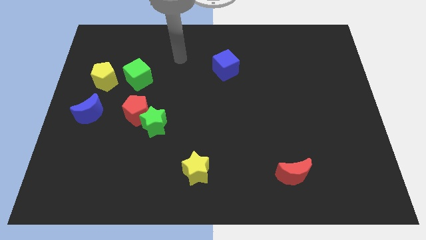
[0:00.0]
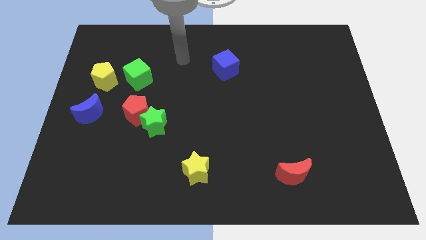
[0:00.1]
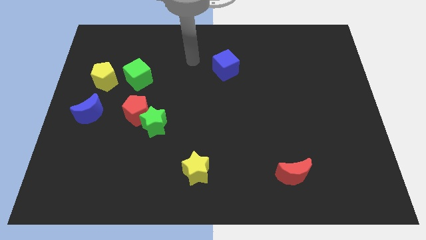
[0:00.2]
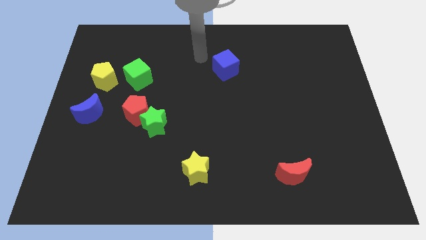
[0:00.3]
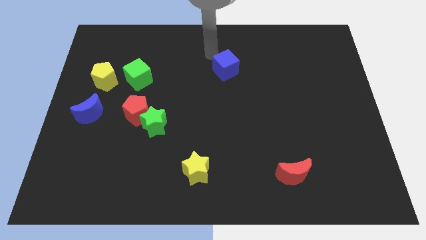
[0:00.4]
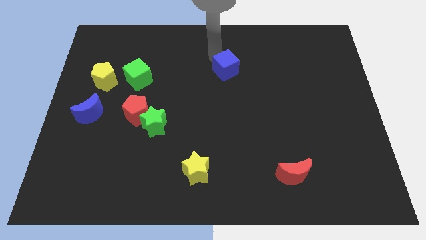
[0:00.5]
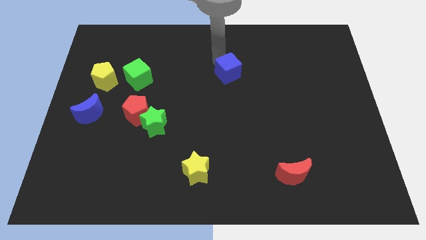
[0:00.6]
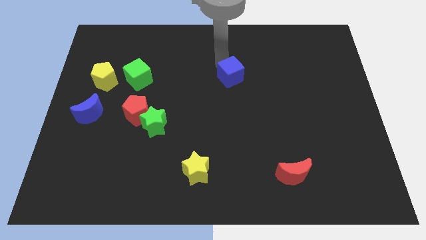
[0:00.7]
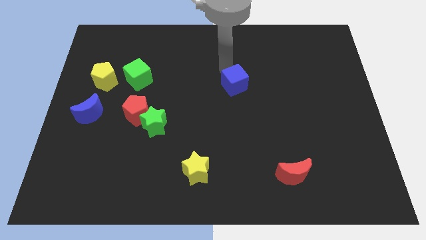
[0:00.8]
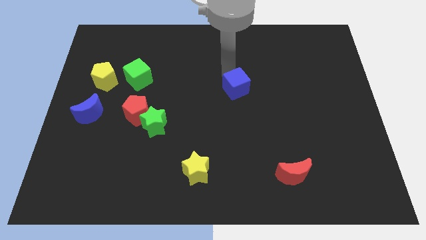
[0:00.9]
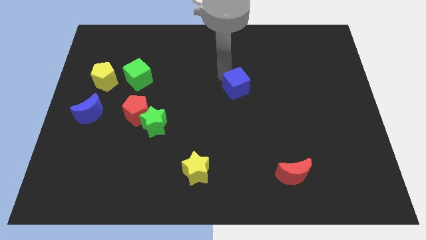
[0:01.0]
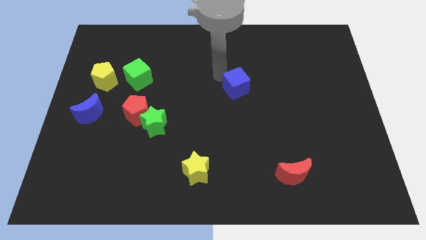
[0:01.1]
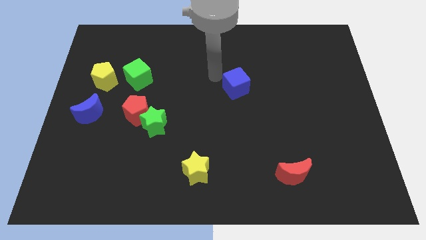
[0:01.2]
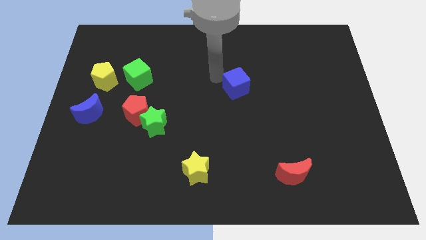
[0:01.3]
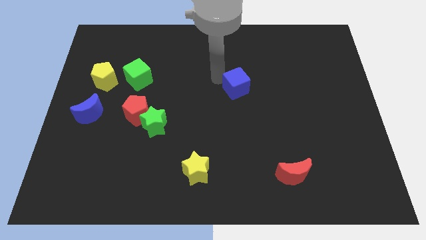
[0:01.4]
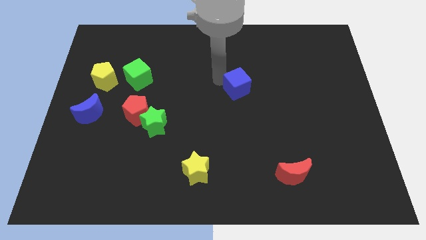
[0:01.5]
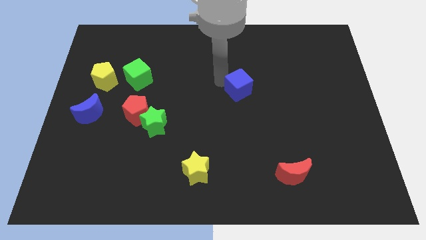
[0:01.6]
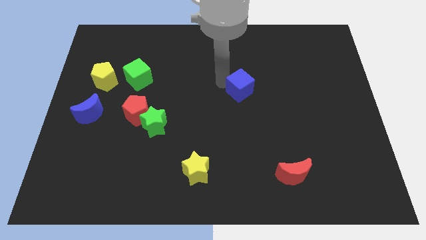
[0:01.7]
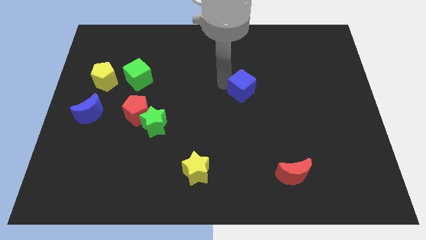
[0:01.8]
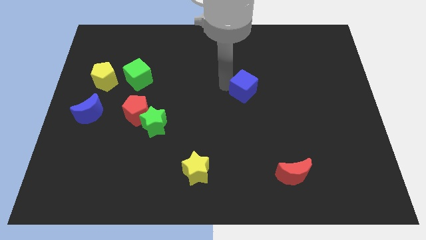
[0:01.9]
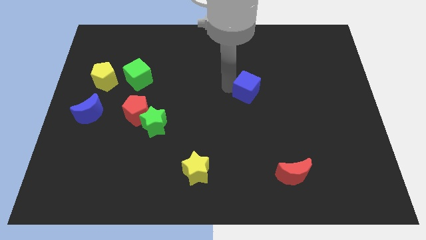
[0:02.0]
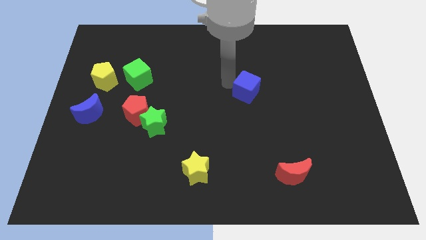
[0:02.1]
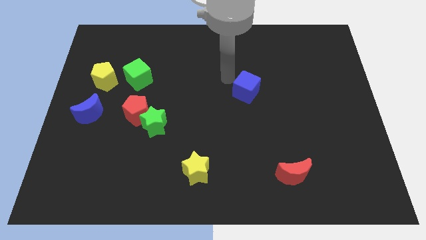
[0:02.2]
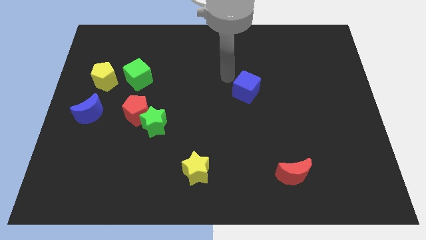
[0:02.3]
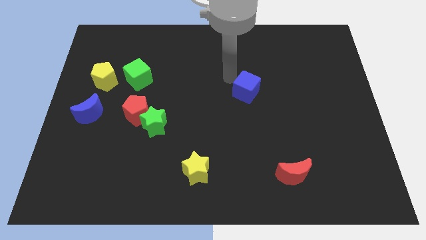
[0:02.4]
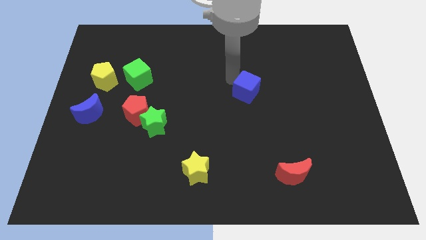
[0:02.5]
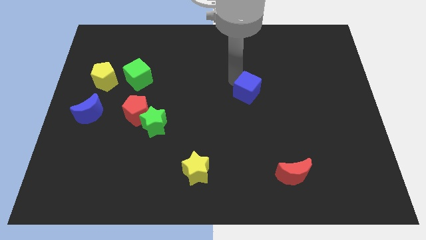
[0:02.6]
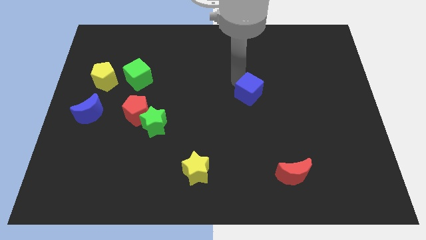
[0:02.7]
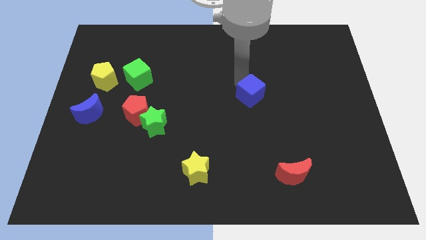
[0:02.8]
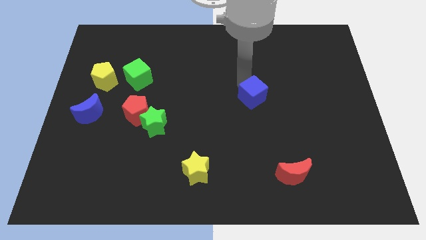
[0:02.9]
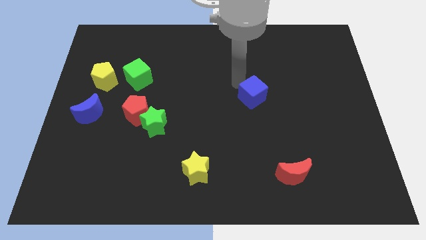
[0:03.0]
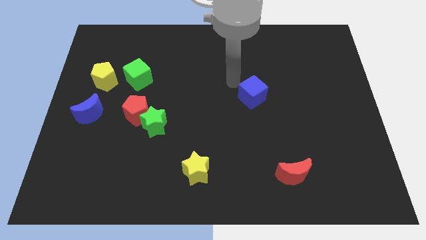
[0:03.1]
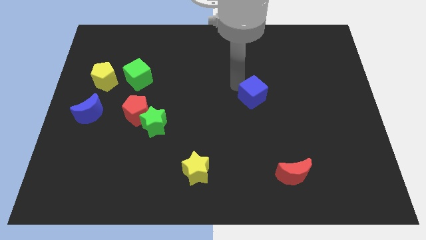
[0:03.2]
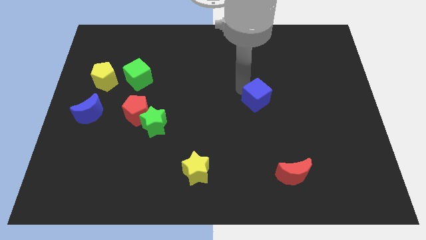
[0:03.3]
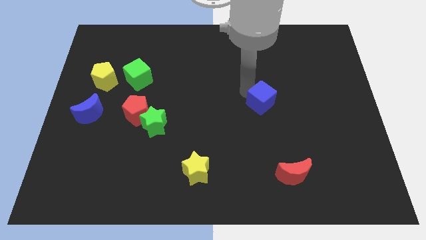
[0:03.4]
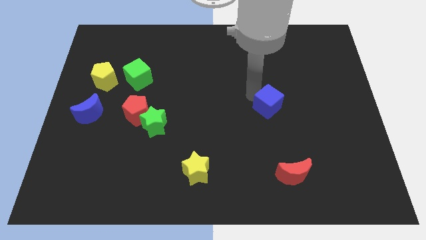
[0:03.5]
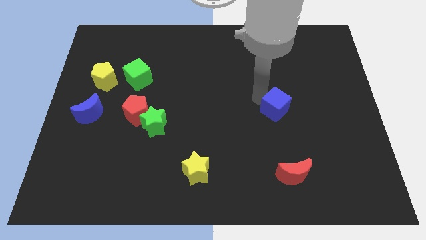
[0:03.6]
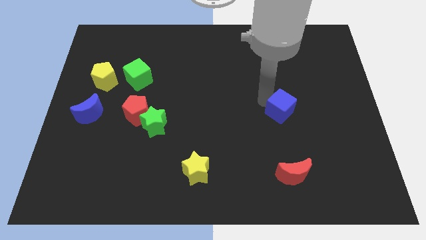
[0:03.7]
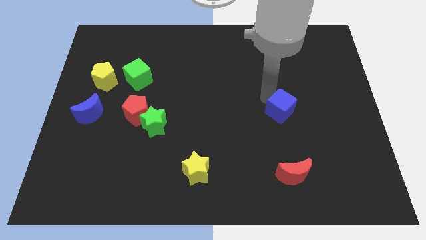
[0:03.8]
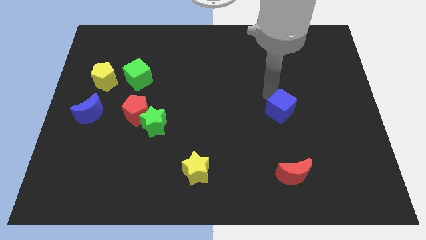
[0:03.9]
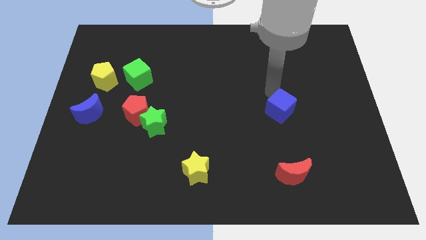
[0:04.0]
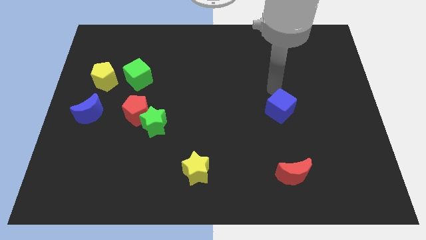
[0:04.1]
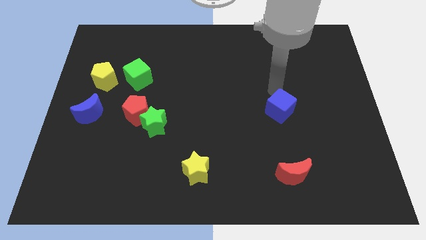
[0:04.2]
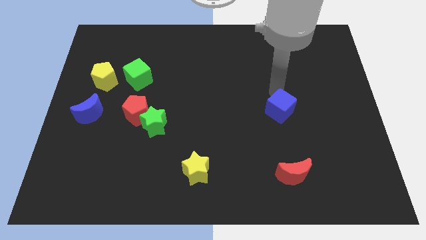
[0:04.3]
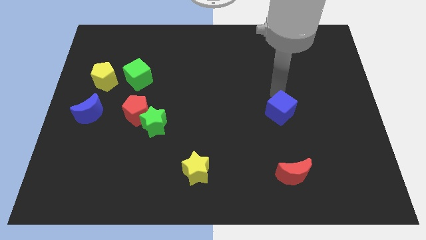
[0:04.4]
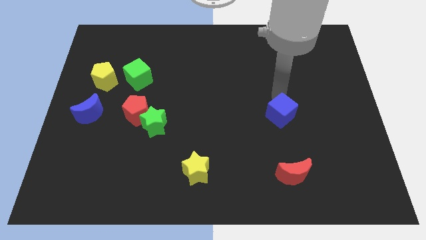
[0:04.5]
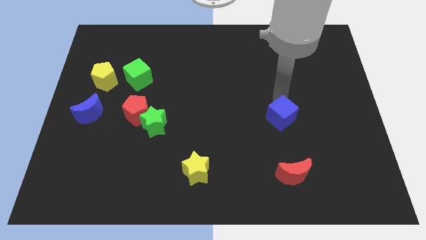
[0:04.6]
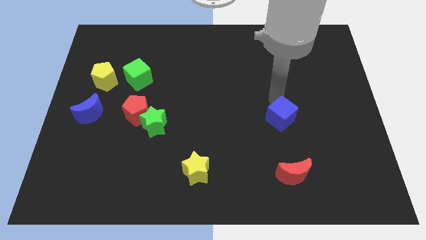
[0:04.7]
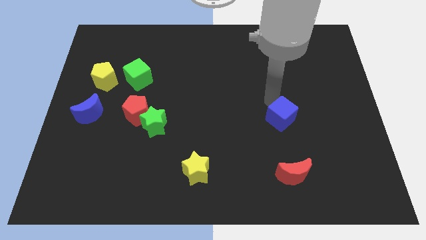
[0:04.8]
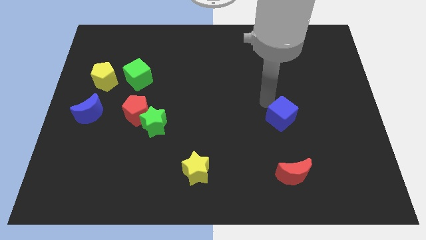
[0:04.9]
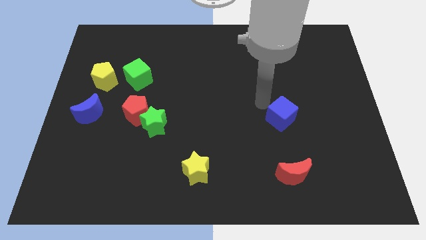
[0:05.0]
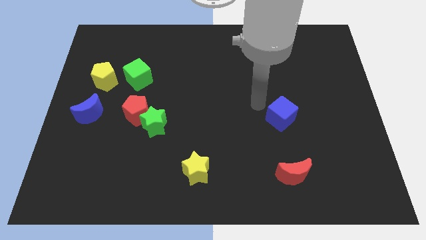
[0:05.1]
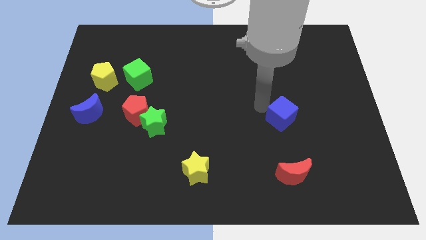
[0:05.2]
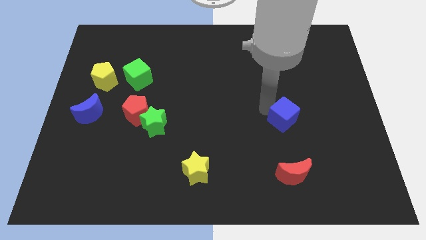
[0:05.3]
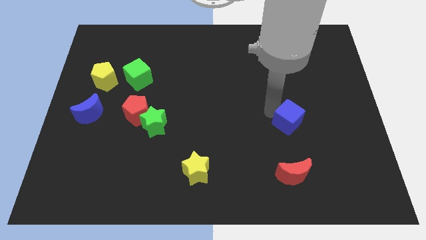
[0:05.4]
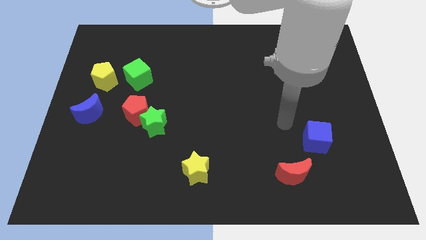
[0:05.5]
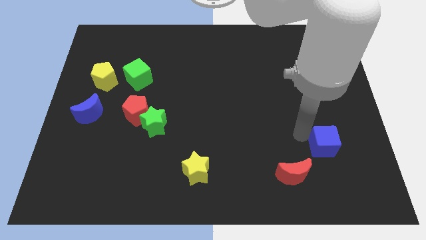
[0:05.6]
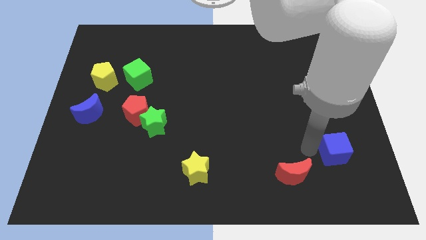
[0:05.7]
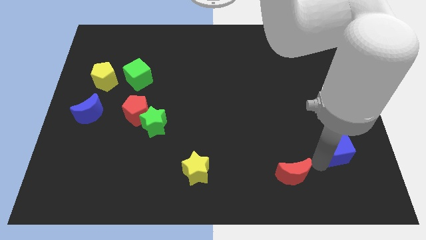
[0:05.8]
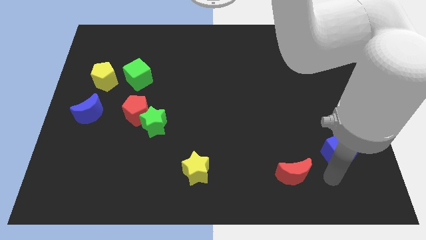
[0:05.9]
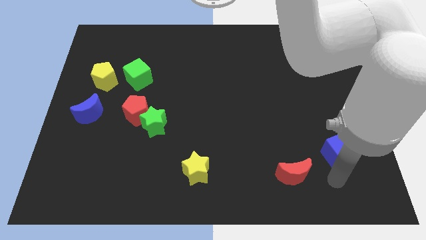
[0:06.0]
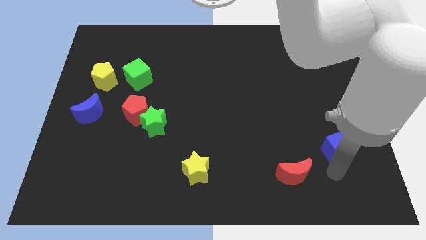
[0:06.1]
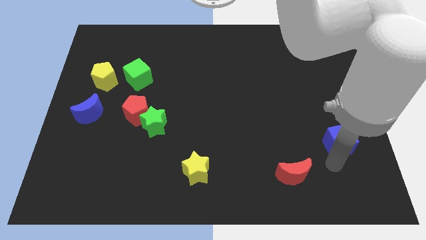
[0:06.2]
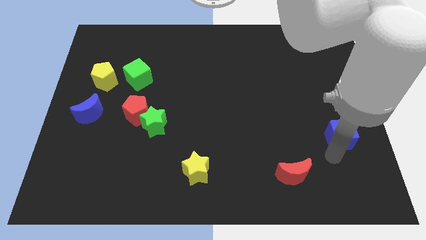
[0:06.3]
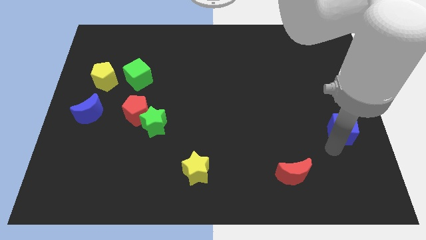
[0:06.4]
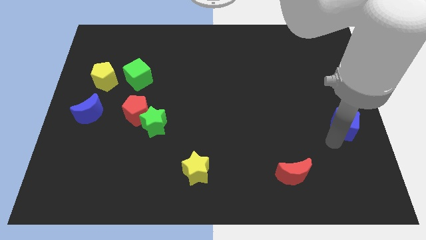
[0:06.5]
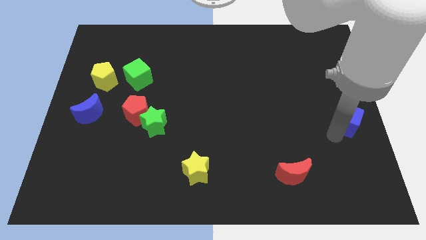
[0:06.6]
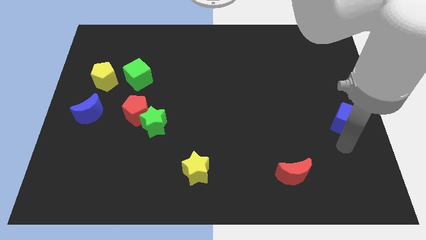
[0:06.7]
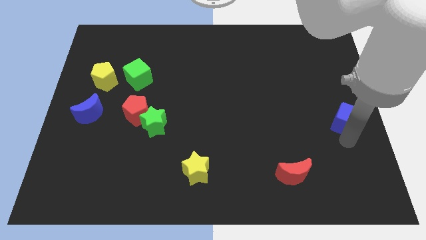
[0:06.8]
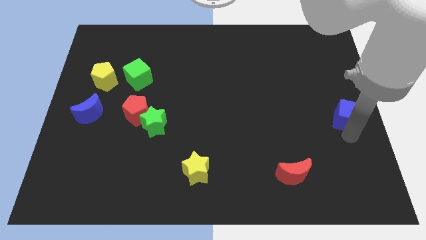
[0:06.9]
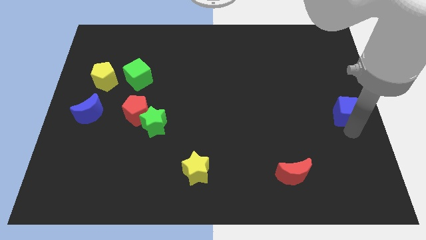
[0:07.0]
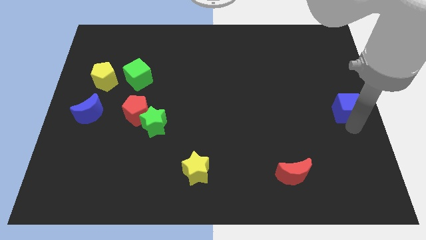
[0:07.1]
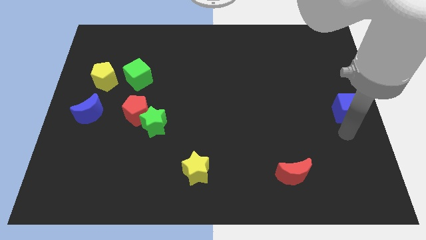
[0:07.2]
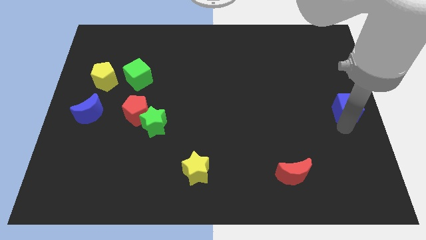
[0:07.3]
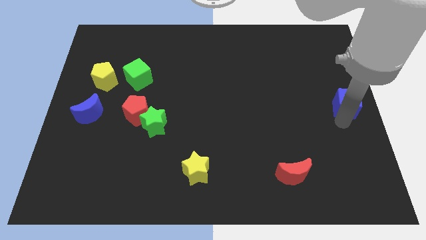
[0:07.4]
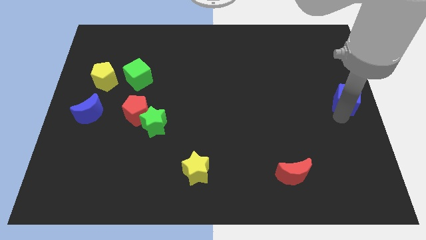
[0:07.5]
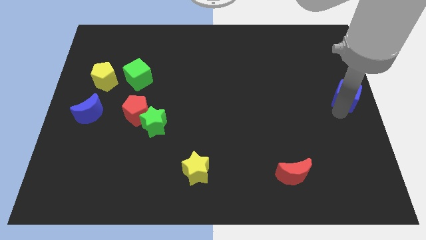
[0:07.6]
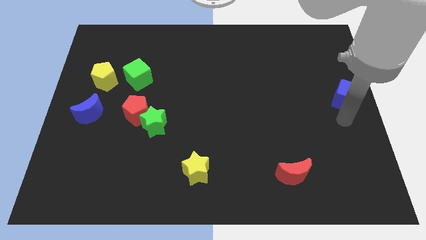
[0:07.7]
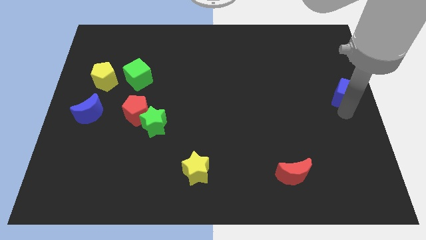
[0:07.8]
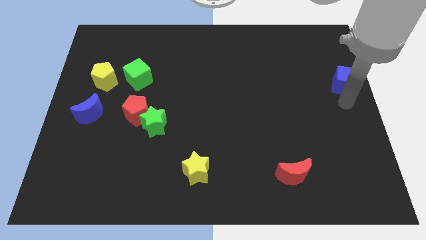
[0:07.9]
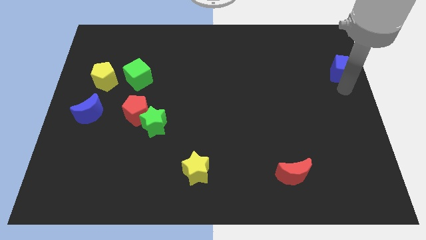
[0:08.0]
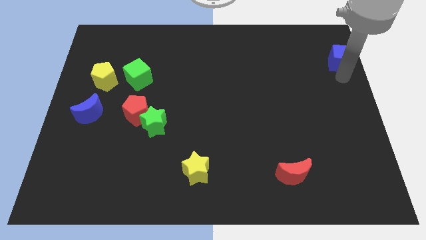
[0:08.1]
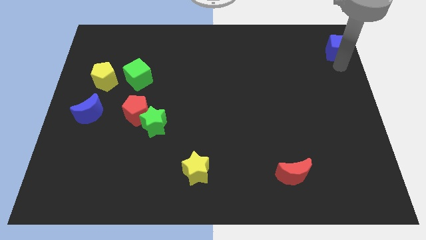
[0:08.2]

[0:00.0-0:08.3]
push the blue cube to the upper right corner
